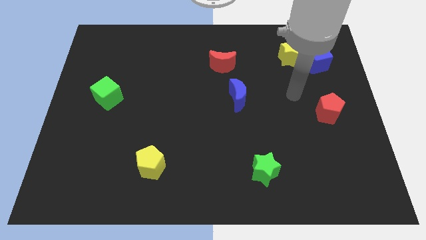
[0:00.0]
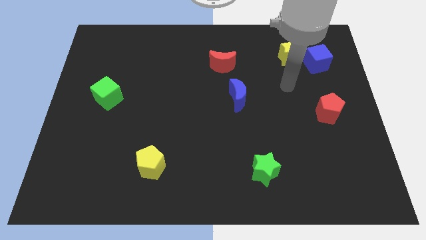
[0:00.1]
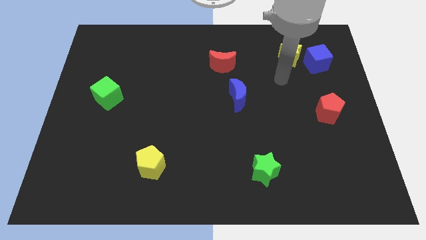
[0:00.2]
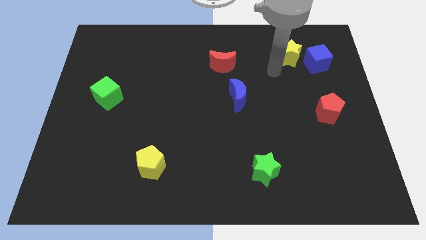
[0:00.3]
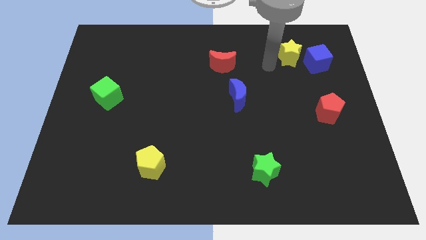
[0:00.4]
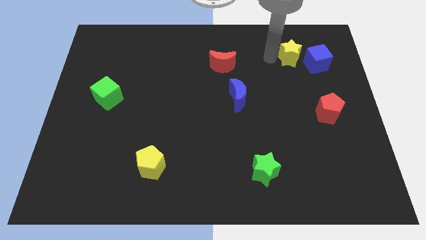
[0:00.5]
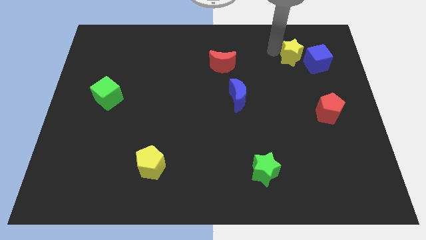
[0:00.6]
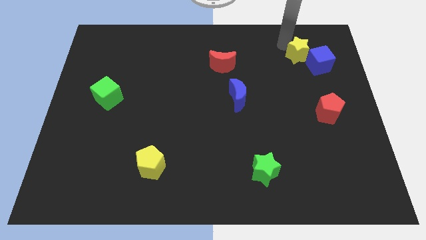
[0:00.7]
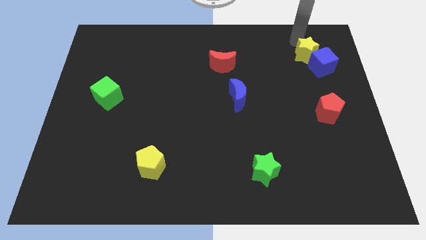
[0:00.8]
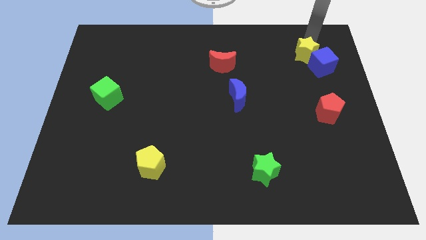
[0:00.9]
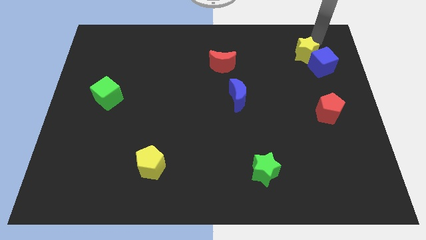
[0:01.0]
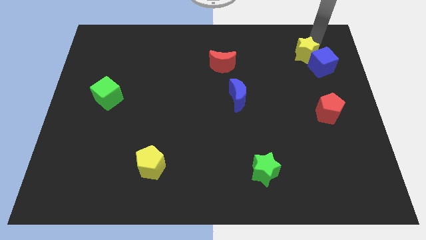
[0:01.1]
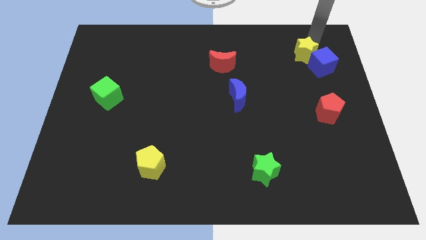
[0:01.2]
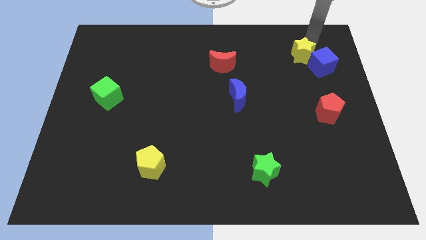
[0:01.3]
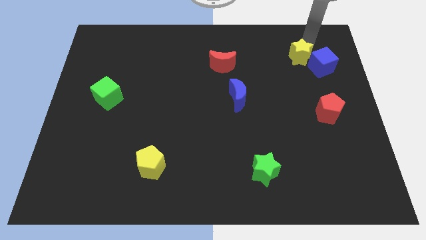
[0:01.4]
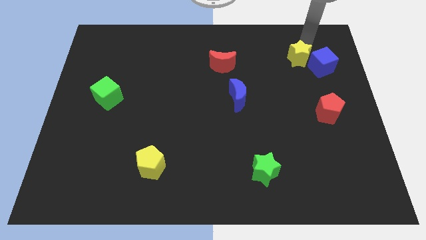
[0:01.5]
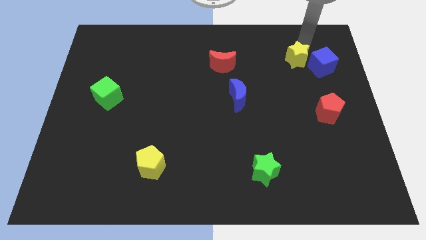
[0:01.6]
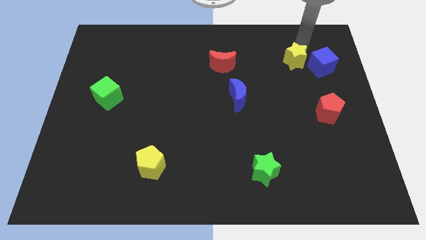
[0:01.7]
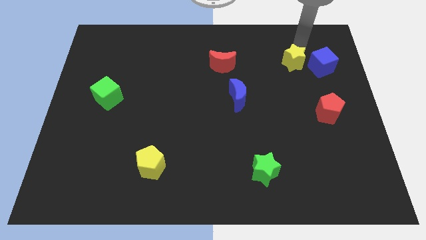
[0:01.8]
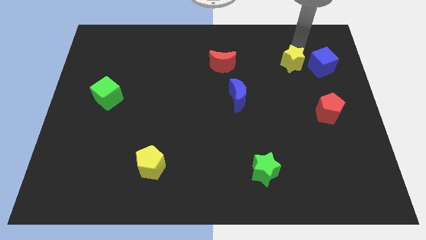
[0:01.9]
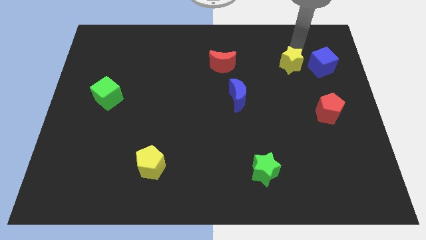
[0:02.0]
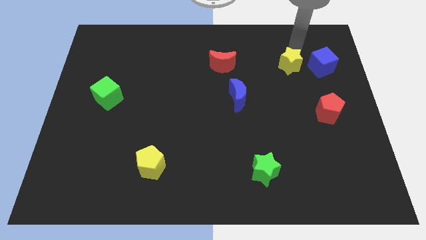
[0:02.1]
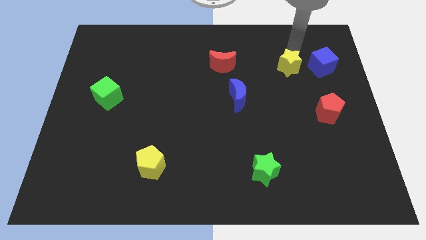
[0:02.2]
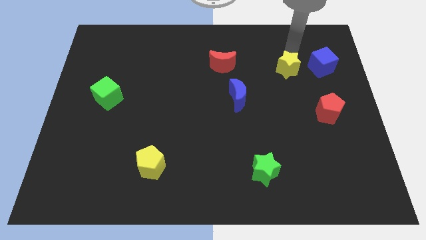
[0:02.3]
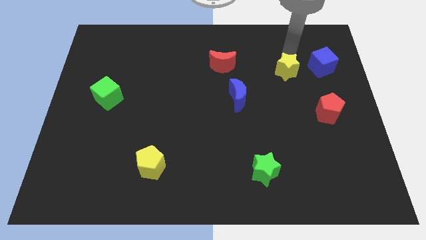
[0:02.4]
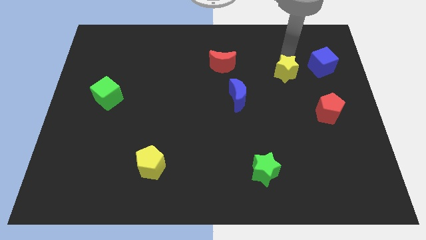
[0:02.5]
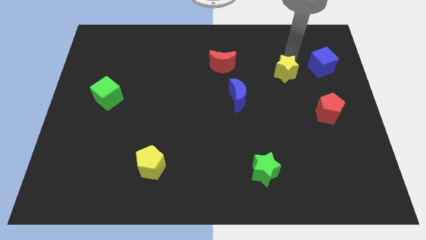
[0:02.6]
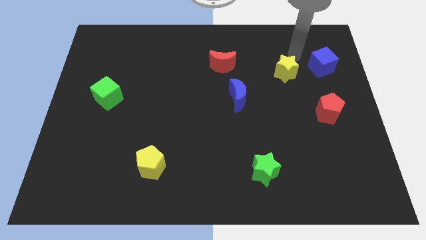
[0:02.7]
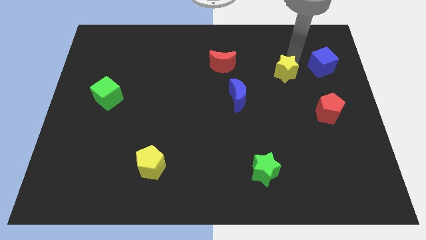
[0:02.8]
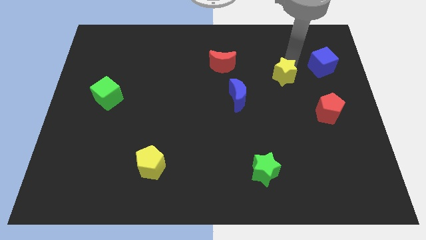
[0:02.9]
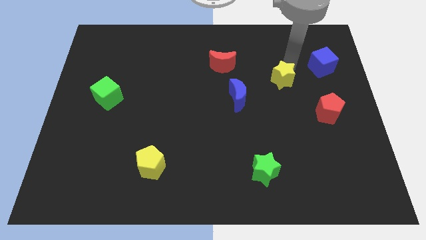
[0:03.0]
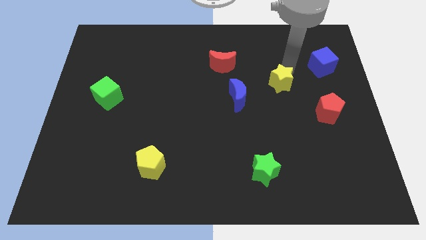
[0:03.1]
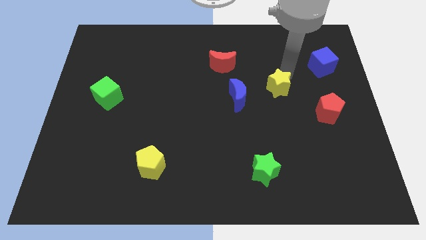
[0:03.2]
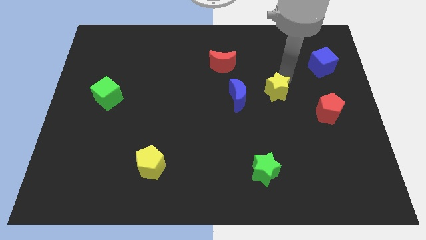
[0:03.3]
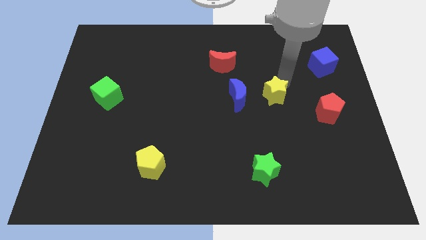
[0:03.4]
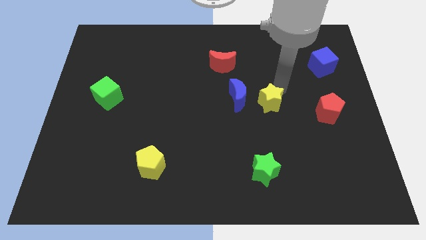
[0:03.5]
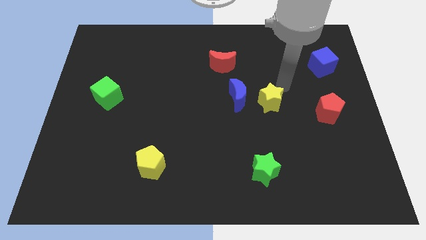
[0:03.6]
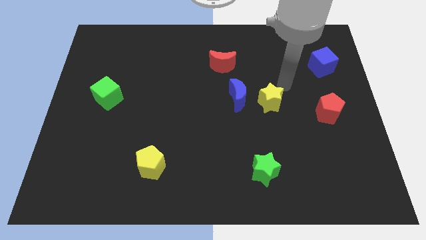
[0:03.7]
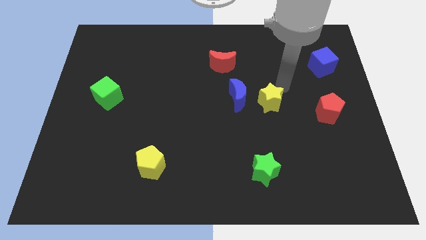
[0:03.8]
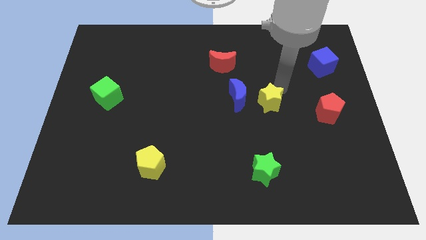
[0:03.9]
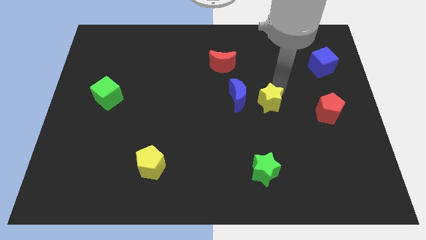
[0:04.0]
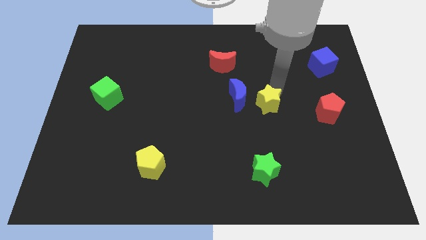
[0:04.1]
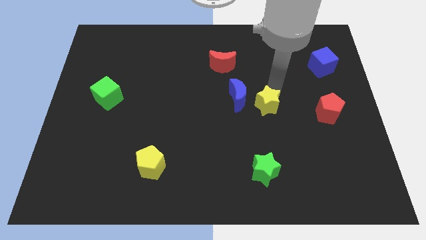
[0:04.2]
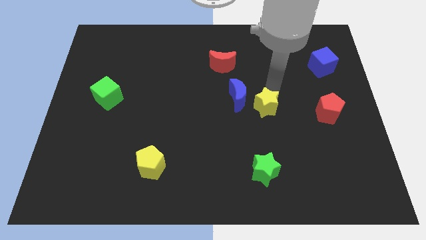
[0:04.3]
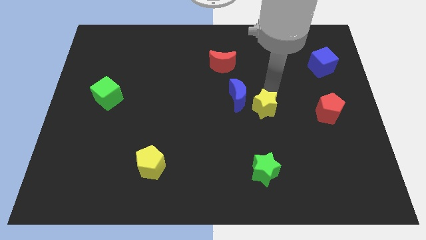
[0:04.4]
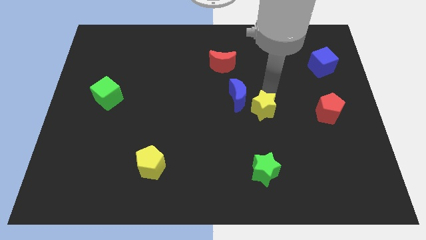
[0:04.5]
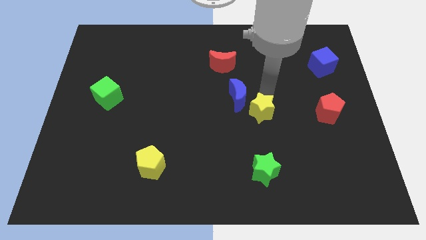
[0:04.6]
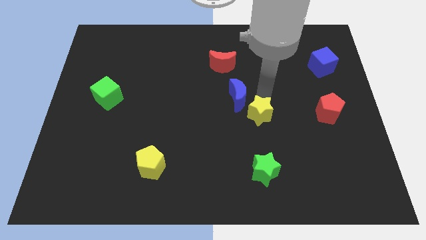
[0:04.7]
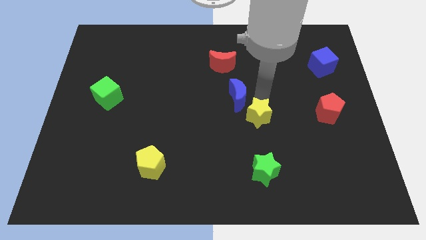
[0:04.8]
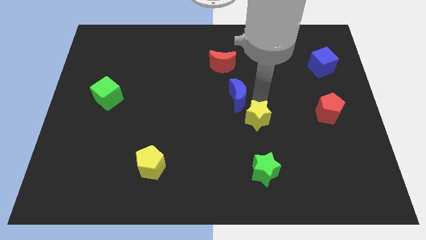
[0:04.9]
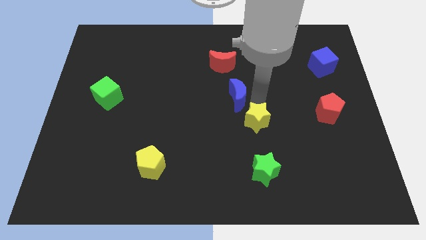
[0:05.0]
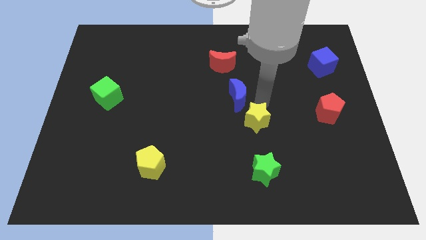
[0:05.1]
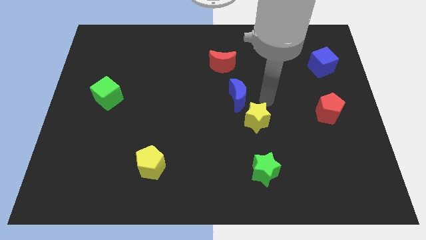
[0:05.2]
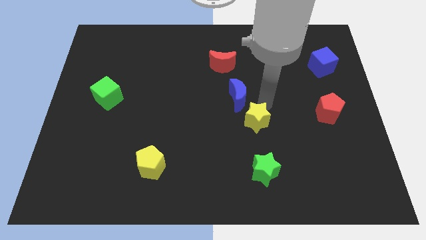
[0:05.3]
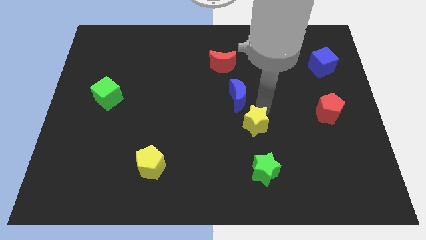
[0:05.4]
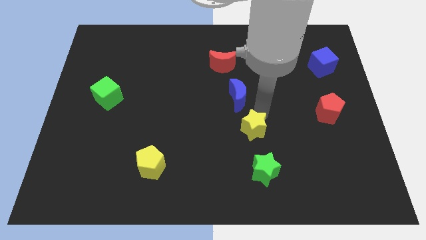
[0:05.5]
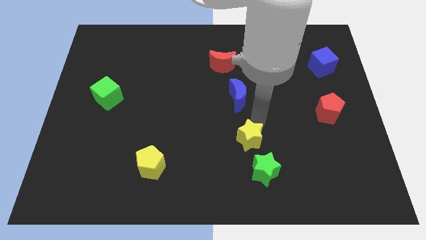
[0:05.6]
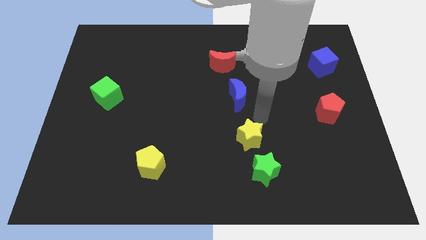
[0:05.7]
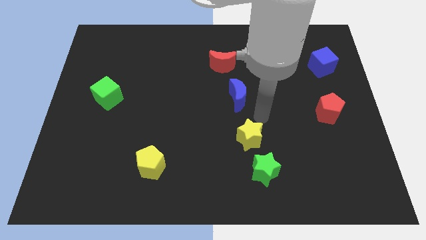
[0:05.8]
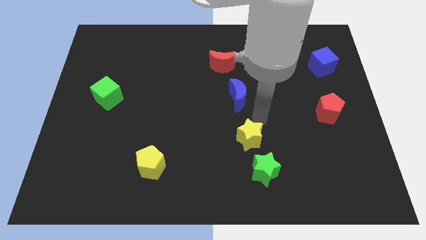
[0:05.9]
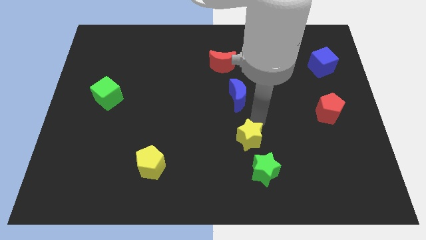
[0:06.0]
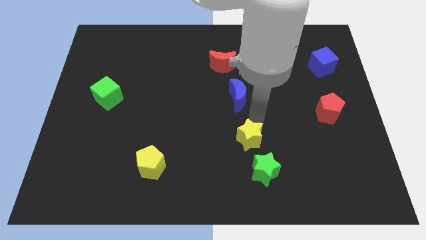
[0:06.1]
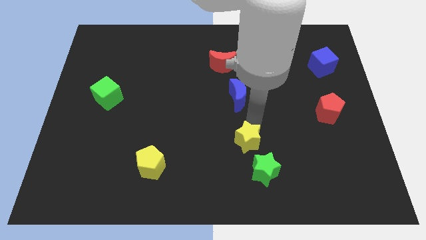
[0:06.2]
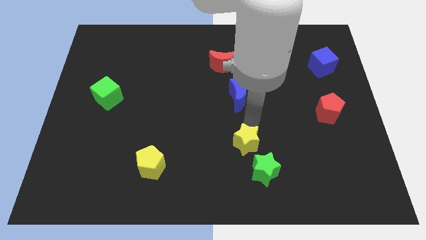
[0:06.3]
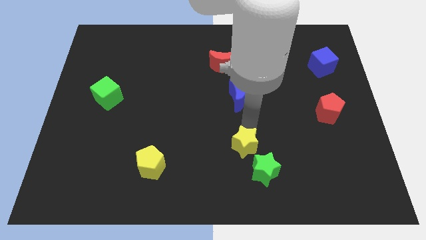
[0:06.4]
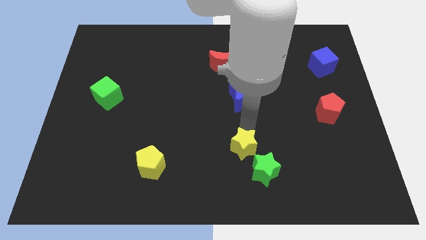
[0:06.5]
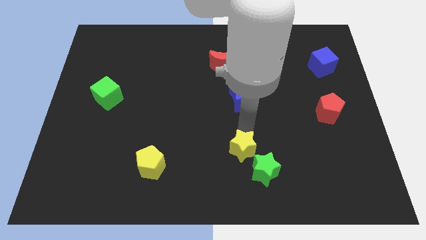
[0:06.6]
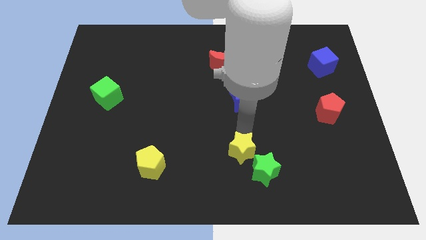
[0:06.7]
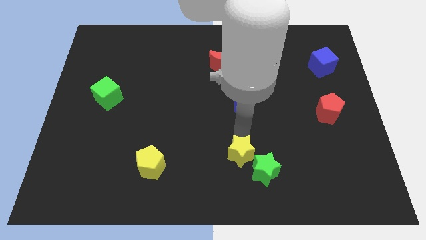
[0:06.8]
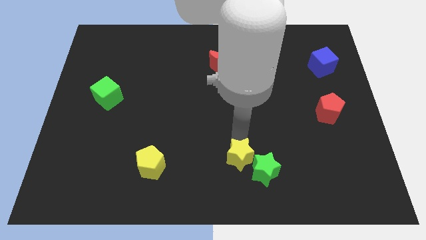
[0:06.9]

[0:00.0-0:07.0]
slide the yellow star to the bottom
